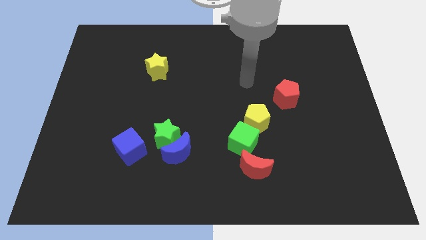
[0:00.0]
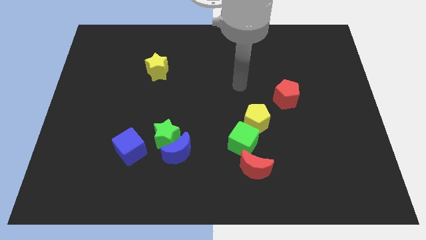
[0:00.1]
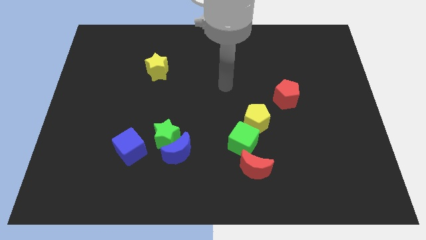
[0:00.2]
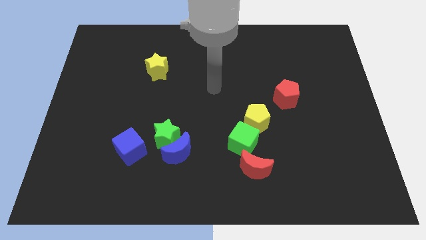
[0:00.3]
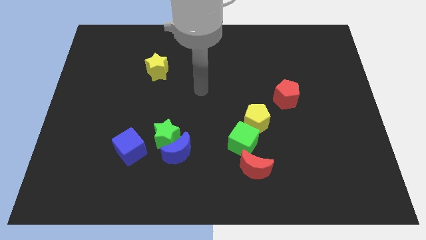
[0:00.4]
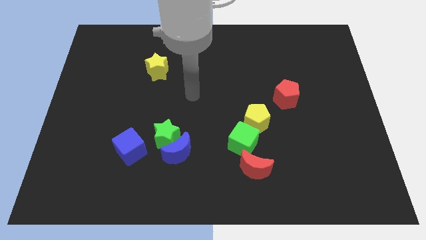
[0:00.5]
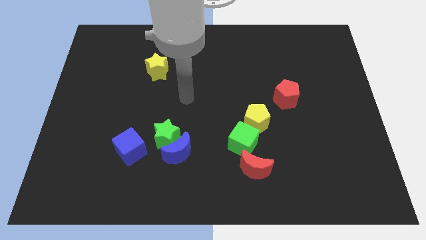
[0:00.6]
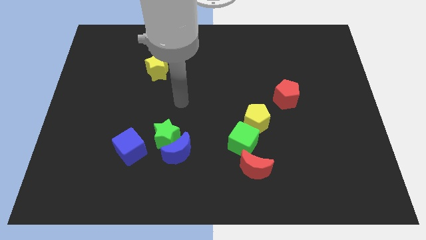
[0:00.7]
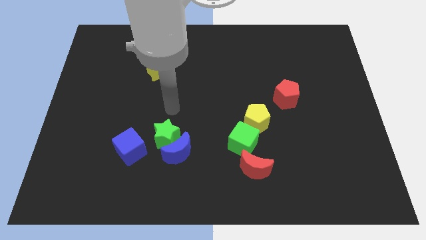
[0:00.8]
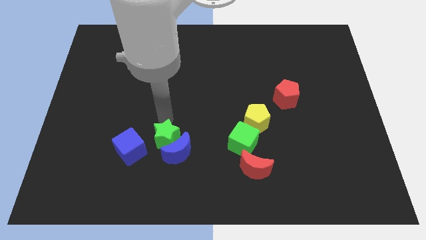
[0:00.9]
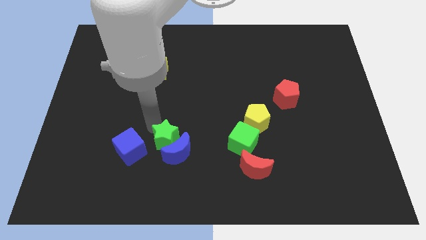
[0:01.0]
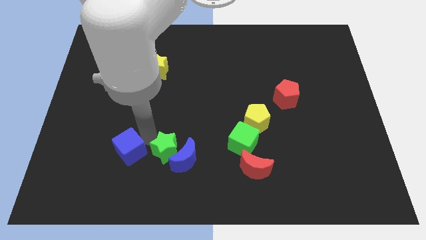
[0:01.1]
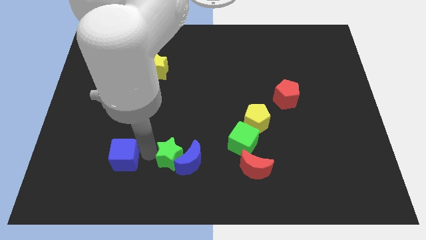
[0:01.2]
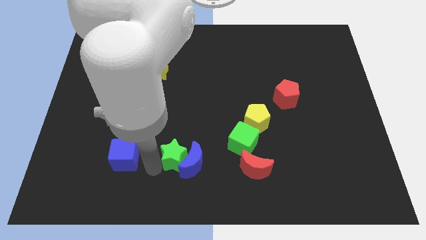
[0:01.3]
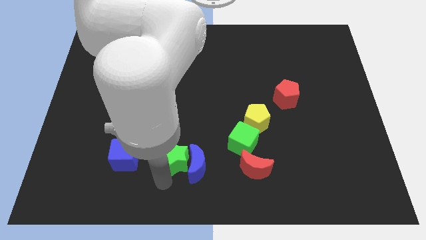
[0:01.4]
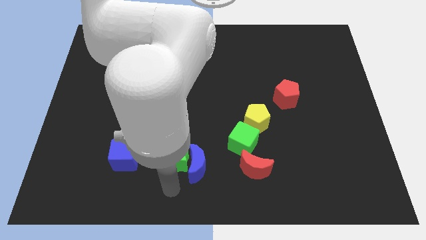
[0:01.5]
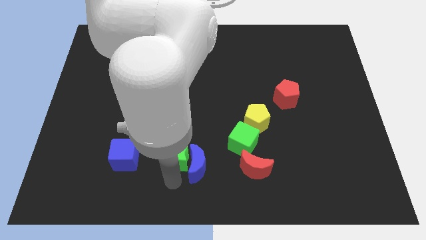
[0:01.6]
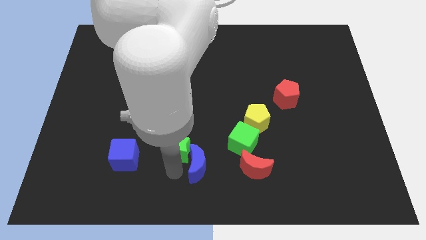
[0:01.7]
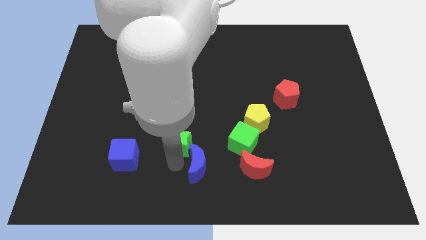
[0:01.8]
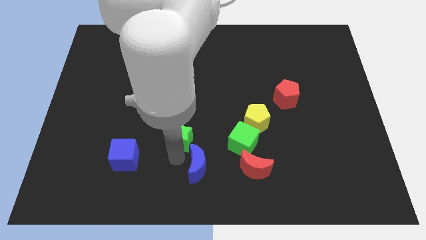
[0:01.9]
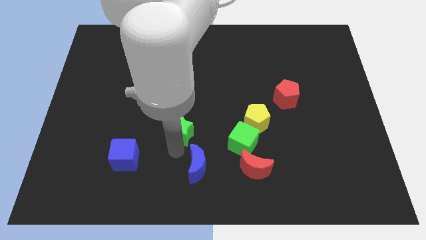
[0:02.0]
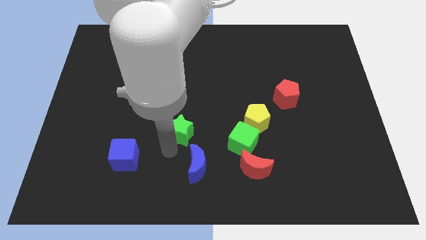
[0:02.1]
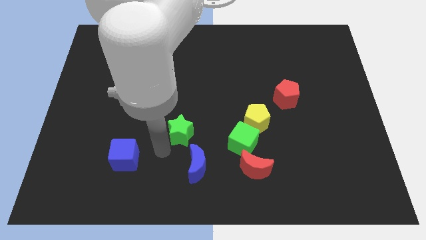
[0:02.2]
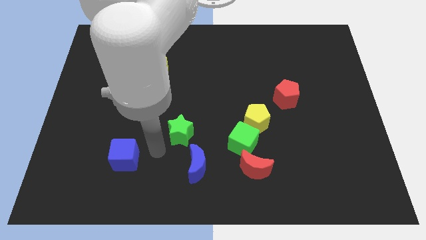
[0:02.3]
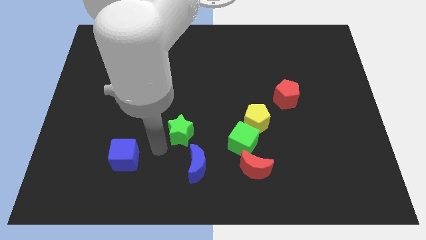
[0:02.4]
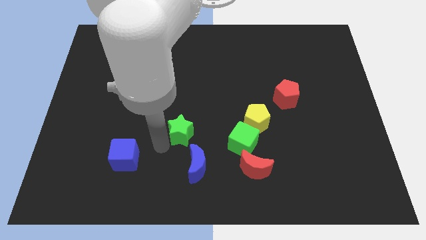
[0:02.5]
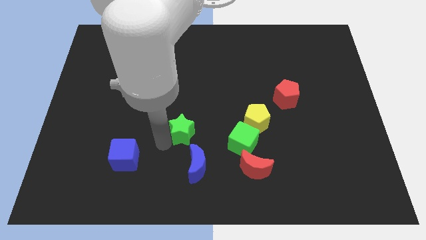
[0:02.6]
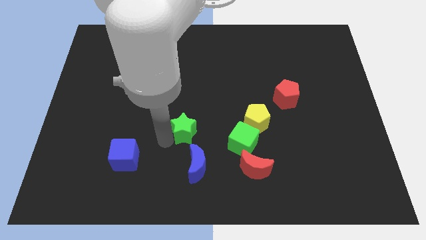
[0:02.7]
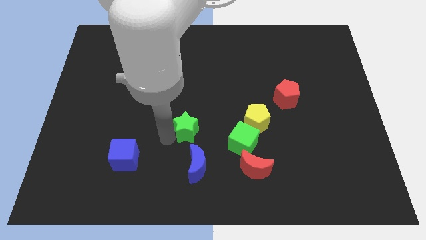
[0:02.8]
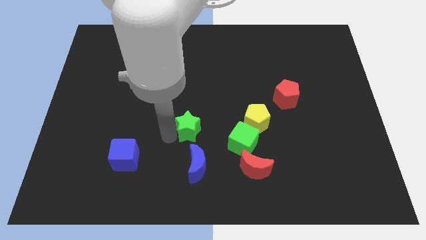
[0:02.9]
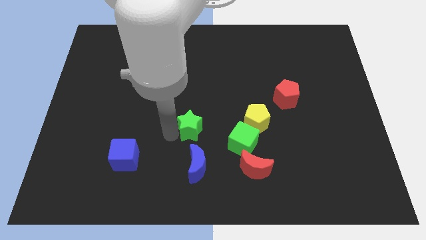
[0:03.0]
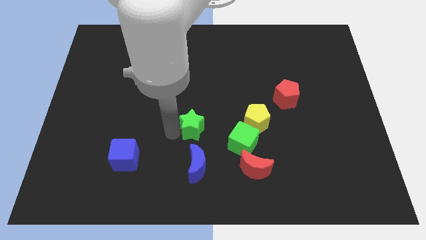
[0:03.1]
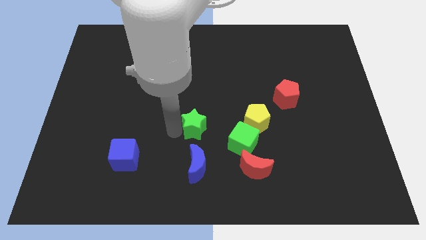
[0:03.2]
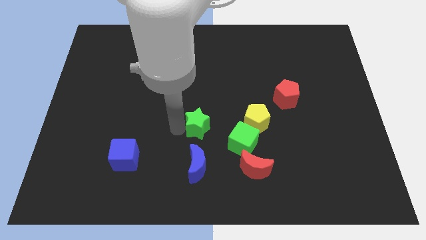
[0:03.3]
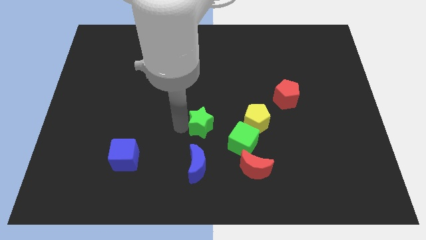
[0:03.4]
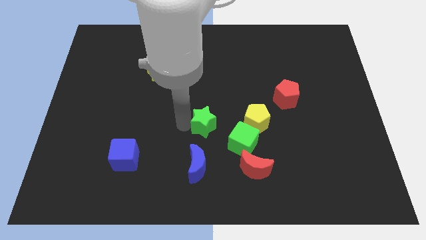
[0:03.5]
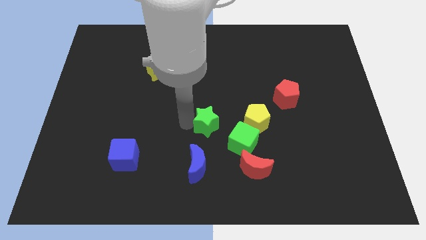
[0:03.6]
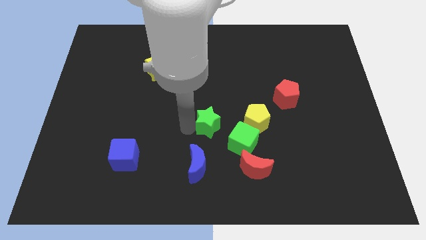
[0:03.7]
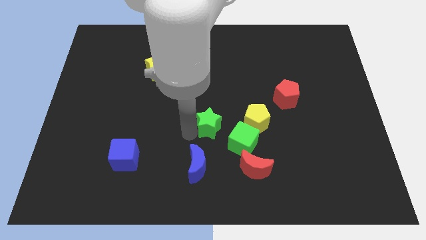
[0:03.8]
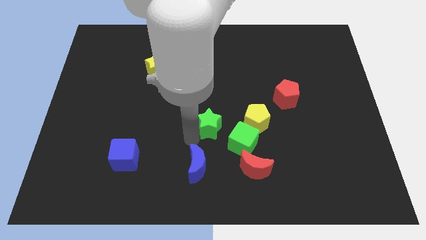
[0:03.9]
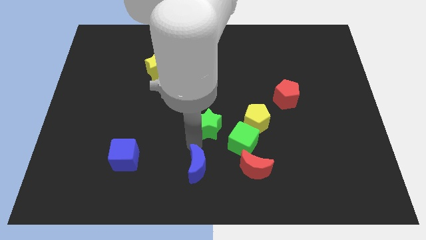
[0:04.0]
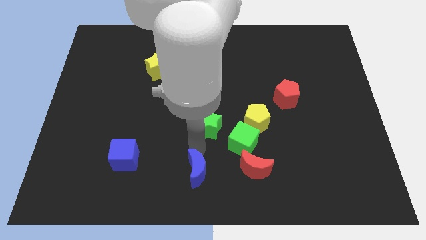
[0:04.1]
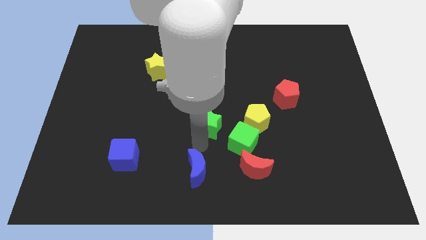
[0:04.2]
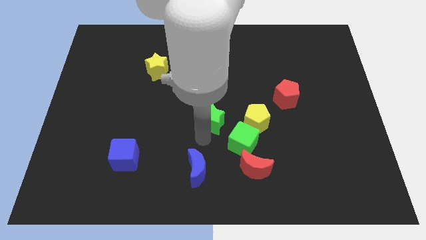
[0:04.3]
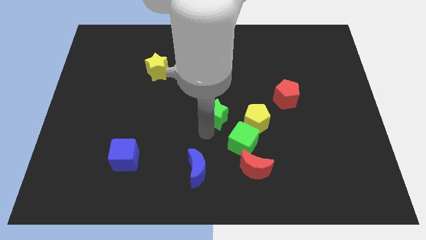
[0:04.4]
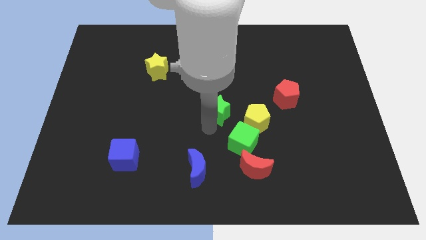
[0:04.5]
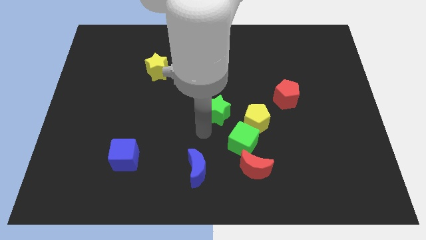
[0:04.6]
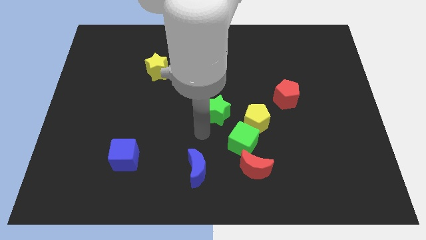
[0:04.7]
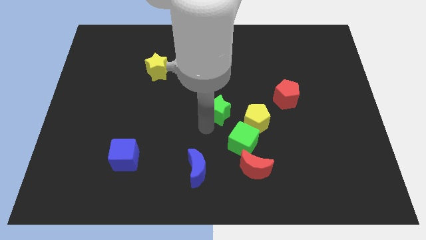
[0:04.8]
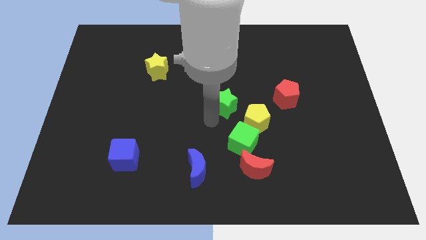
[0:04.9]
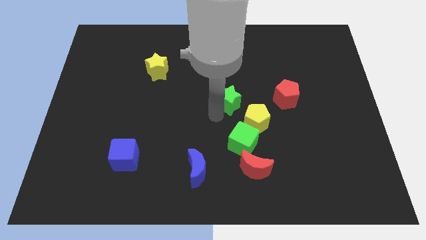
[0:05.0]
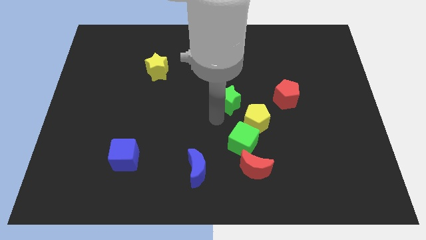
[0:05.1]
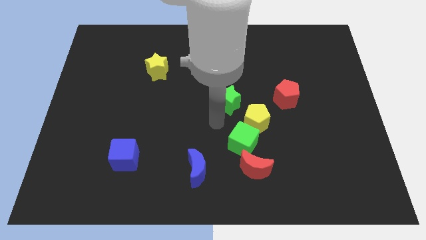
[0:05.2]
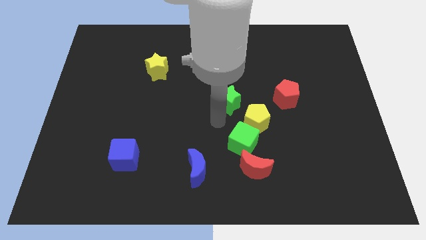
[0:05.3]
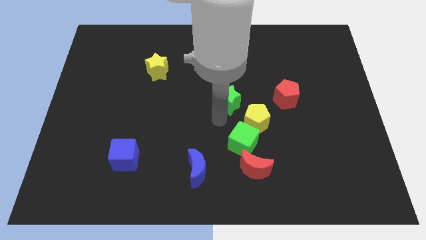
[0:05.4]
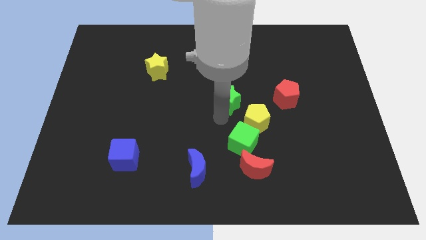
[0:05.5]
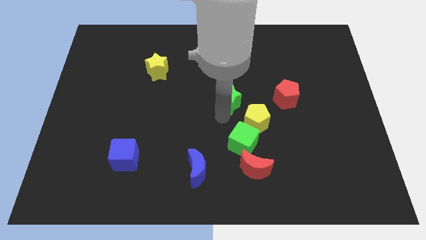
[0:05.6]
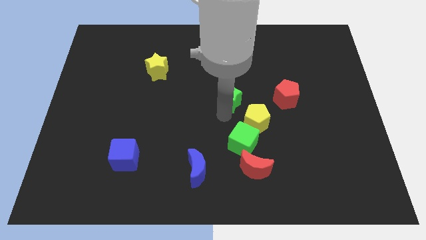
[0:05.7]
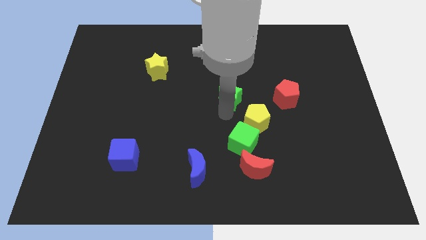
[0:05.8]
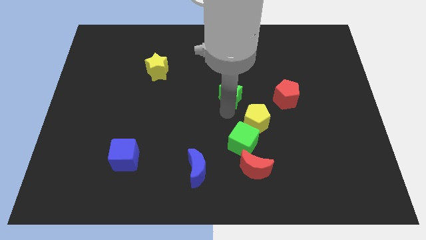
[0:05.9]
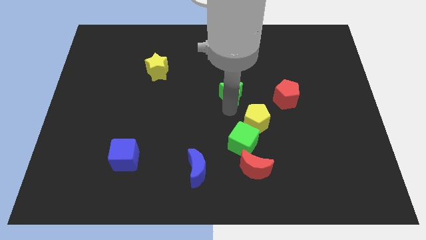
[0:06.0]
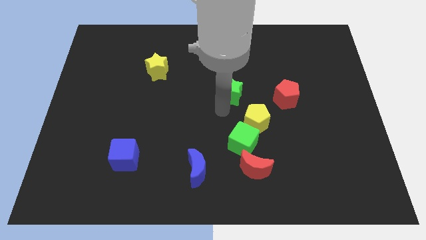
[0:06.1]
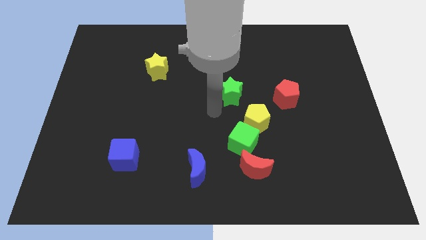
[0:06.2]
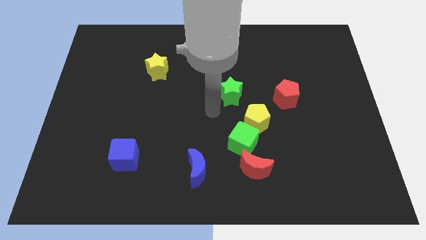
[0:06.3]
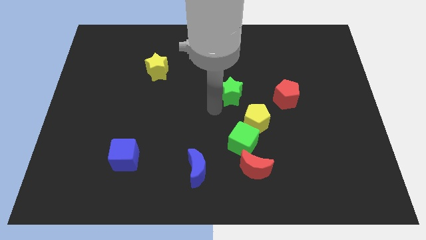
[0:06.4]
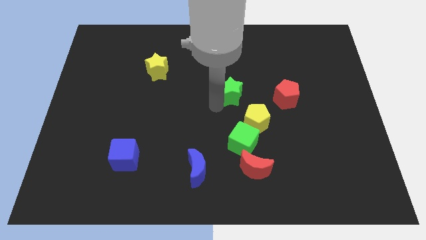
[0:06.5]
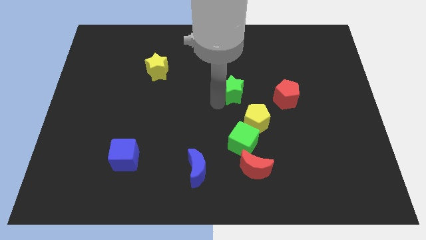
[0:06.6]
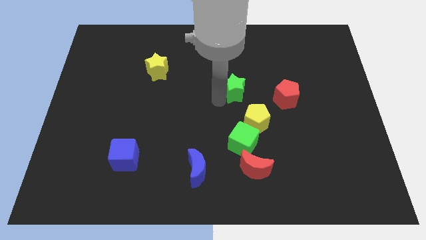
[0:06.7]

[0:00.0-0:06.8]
slide the green star up and to the right

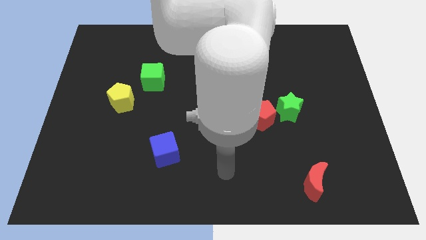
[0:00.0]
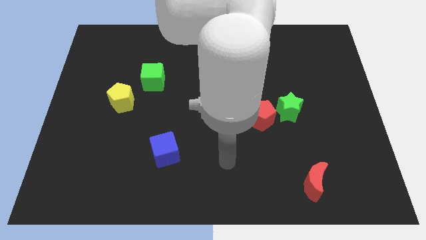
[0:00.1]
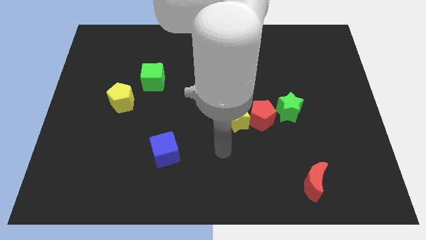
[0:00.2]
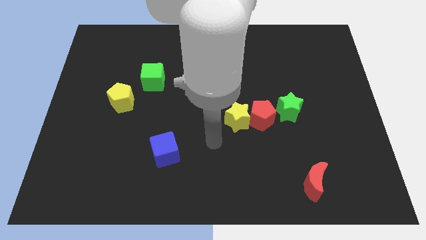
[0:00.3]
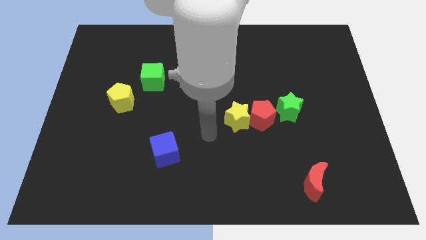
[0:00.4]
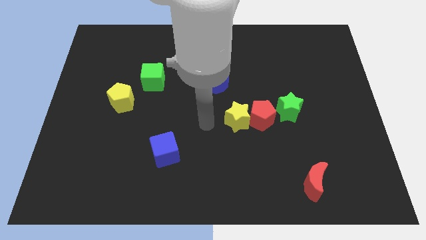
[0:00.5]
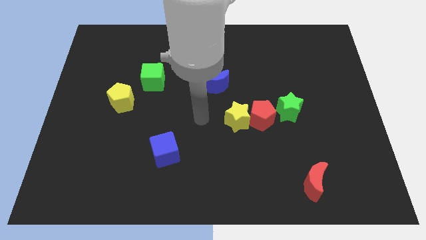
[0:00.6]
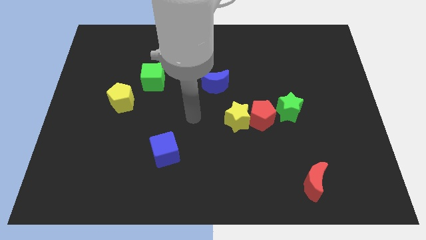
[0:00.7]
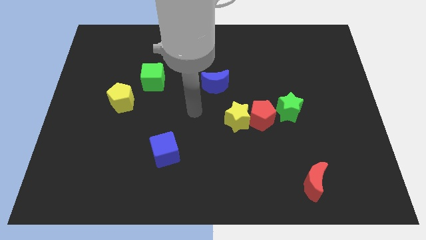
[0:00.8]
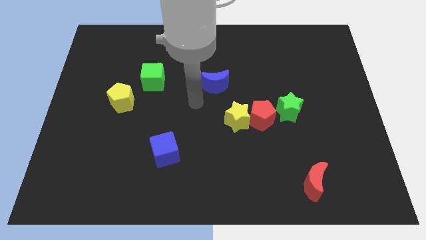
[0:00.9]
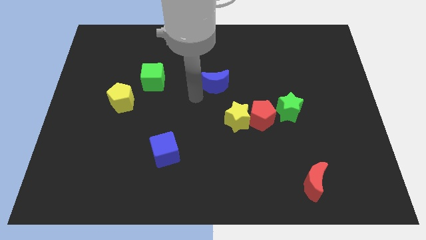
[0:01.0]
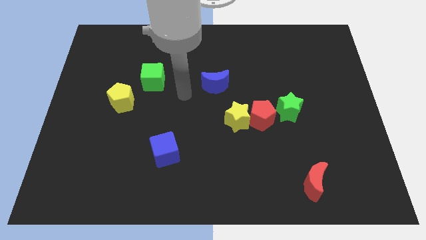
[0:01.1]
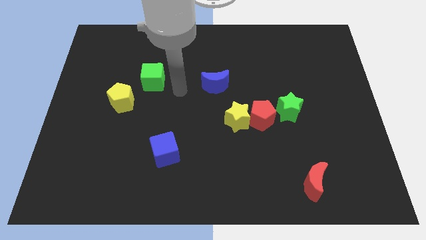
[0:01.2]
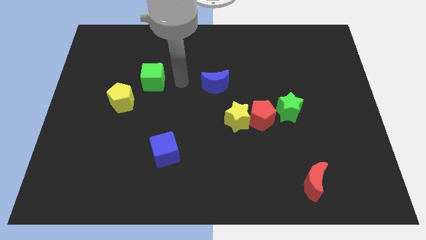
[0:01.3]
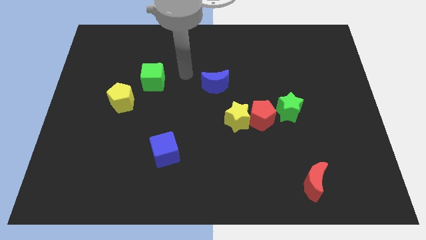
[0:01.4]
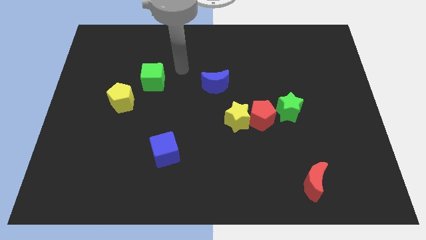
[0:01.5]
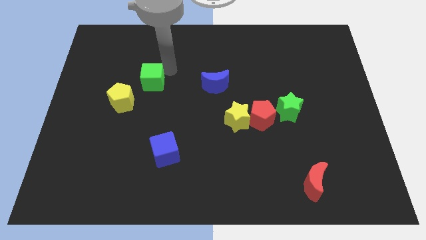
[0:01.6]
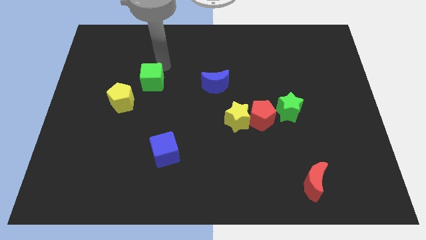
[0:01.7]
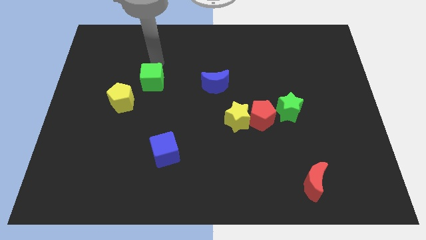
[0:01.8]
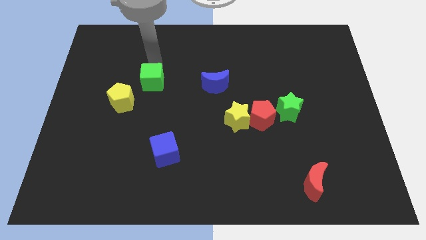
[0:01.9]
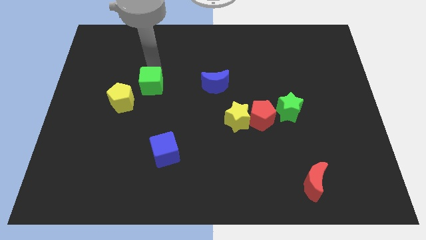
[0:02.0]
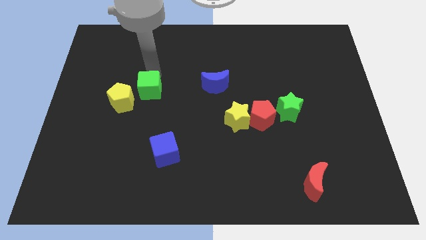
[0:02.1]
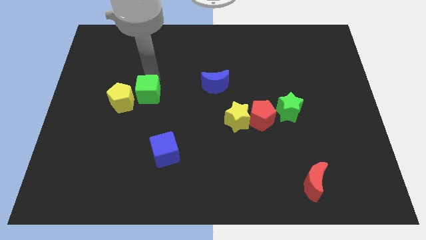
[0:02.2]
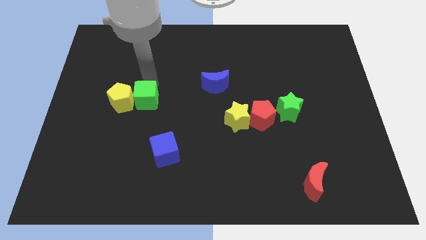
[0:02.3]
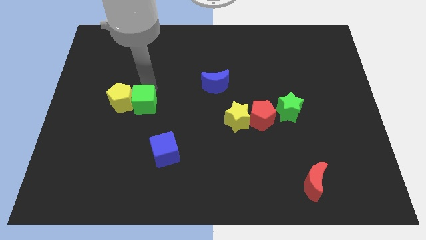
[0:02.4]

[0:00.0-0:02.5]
push the green cube down a little
